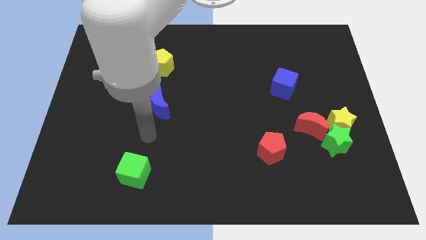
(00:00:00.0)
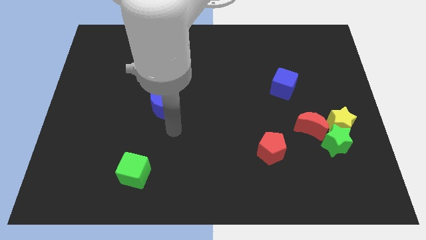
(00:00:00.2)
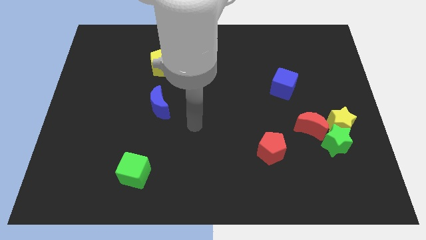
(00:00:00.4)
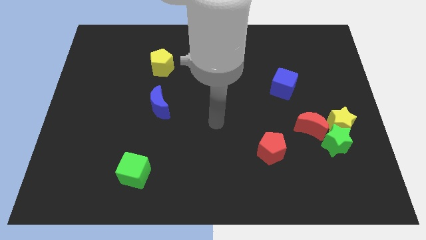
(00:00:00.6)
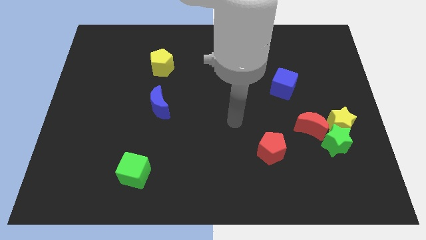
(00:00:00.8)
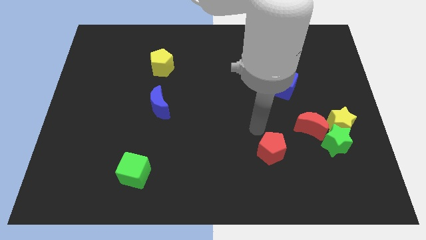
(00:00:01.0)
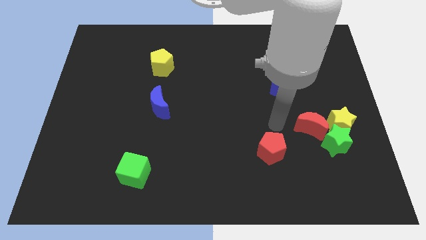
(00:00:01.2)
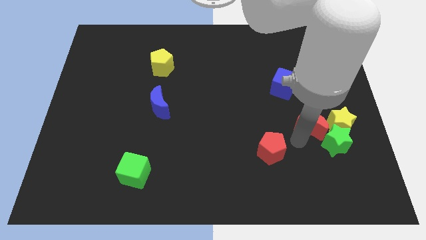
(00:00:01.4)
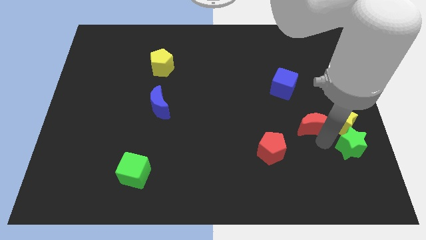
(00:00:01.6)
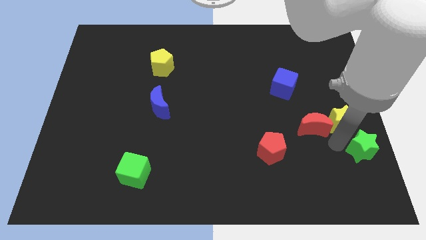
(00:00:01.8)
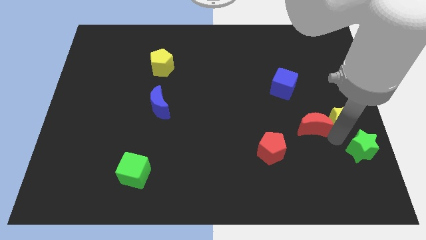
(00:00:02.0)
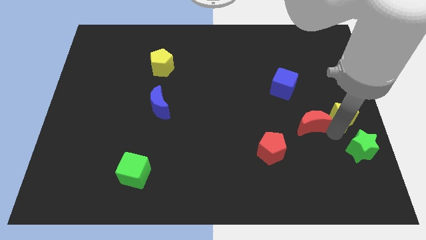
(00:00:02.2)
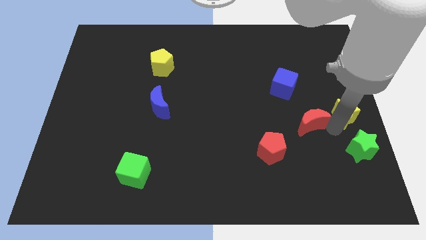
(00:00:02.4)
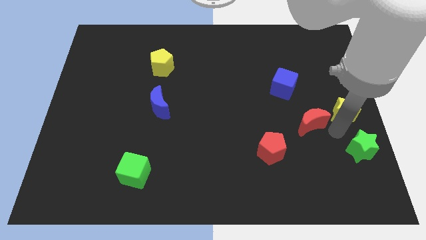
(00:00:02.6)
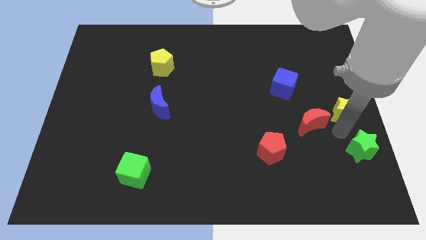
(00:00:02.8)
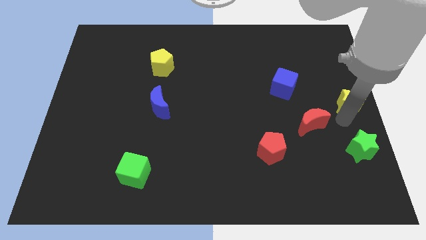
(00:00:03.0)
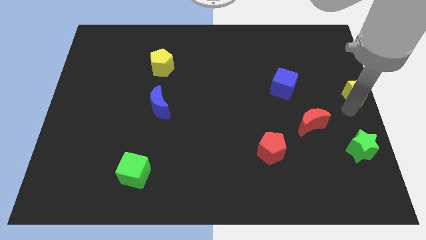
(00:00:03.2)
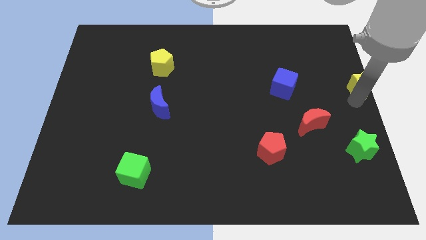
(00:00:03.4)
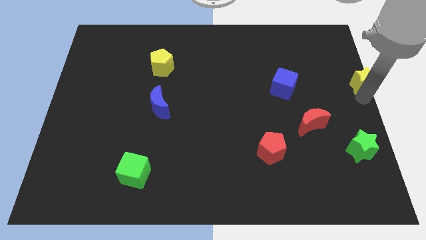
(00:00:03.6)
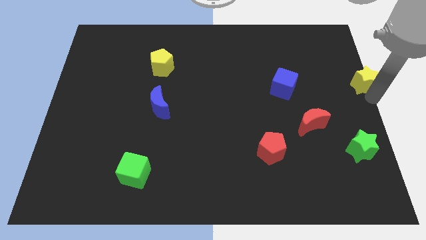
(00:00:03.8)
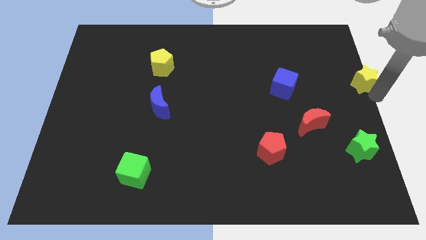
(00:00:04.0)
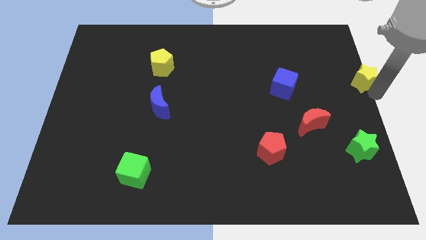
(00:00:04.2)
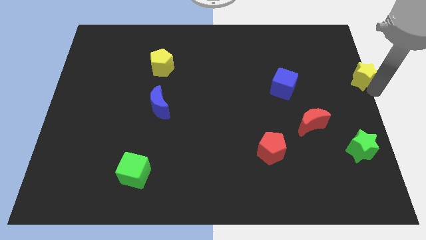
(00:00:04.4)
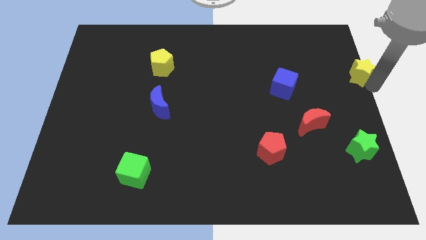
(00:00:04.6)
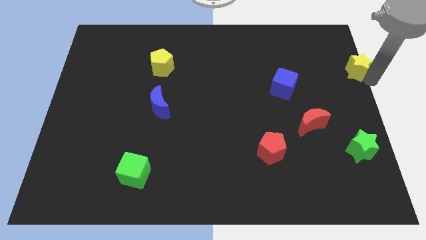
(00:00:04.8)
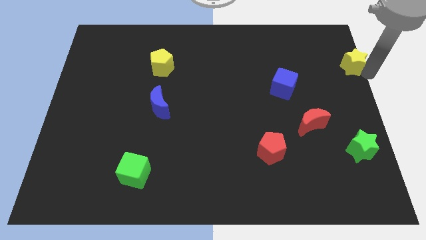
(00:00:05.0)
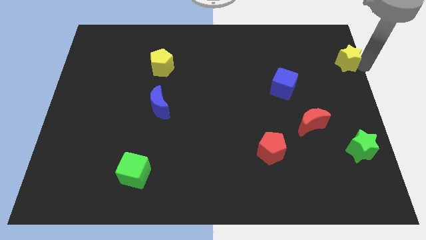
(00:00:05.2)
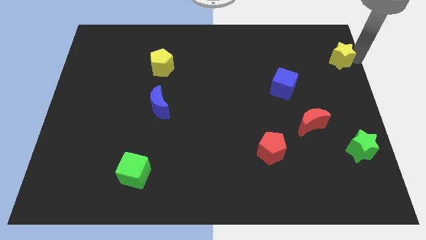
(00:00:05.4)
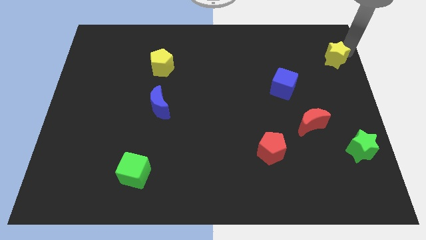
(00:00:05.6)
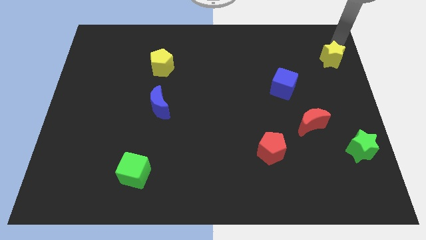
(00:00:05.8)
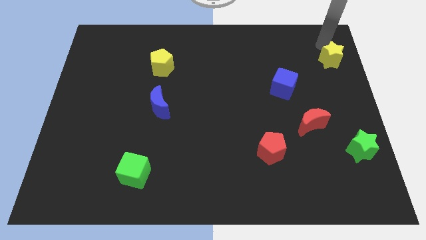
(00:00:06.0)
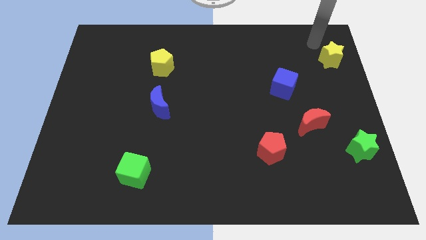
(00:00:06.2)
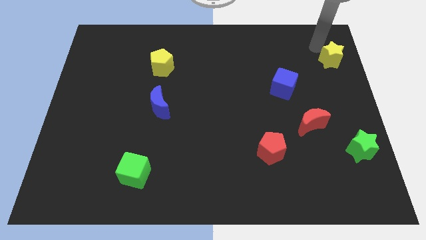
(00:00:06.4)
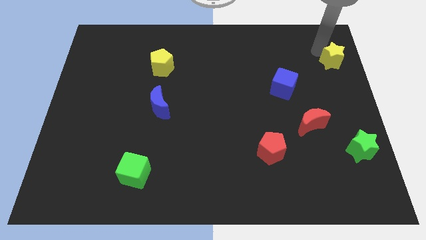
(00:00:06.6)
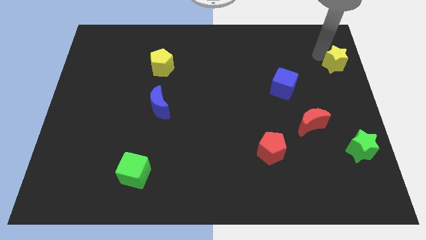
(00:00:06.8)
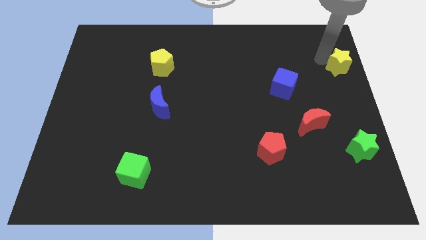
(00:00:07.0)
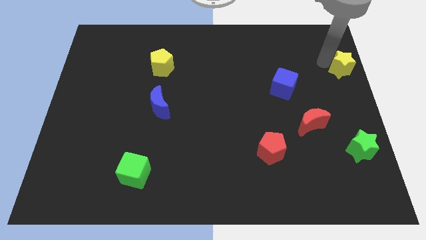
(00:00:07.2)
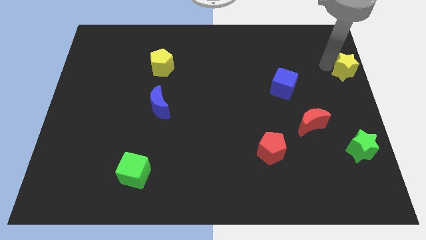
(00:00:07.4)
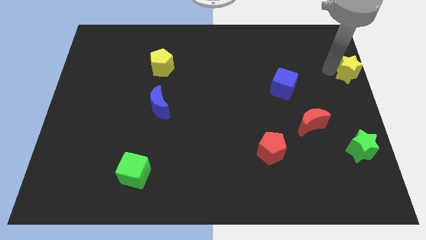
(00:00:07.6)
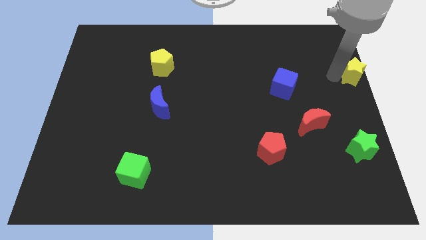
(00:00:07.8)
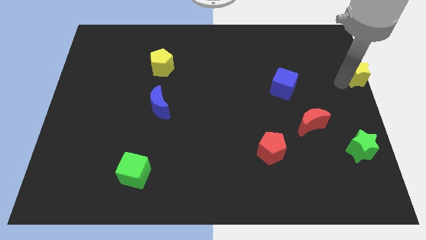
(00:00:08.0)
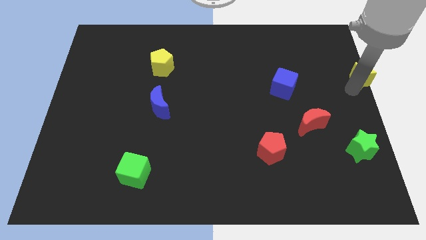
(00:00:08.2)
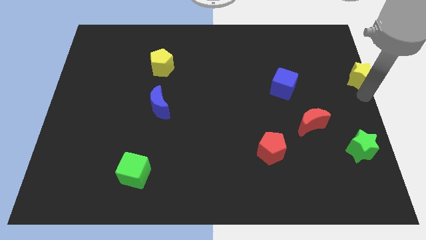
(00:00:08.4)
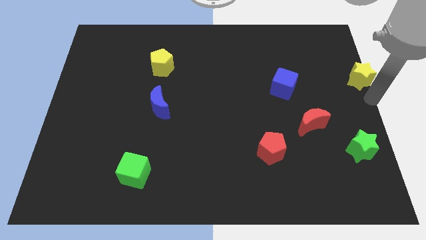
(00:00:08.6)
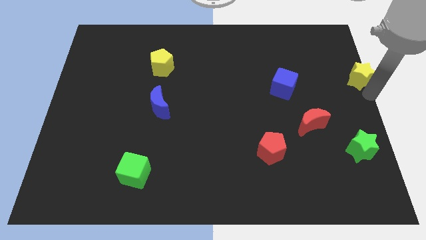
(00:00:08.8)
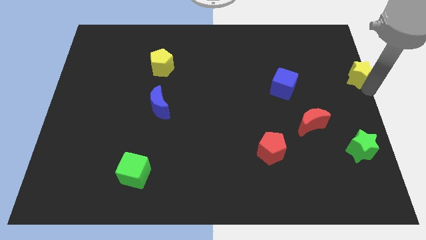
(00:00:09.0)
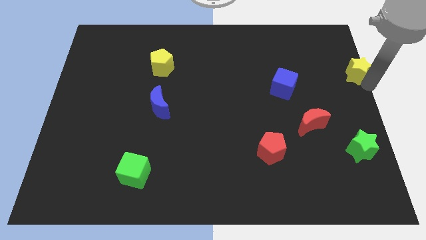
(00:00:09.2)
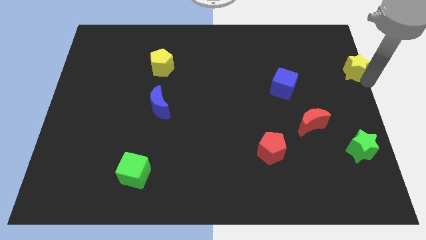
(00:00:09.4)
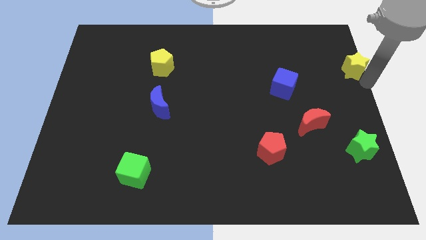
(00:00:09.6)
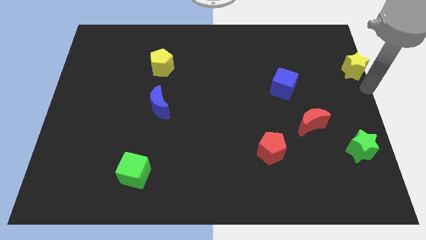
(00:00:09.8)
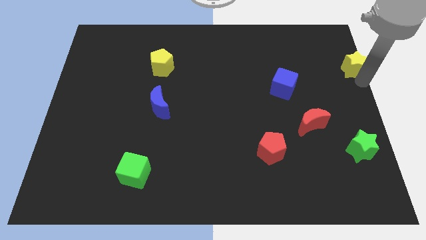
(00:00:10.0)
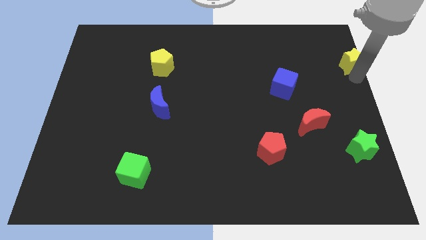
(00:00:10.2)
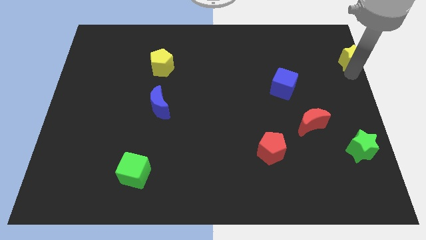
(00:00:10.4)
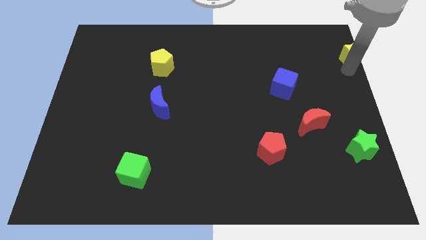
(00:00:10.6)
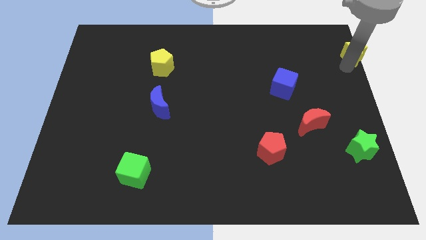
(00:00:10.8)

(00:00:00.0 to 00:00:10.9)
push the yellow star to the top right corner

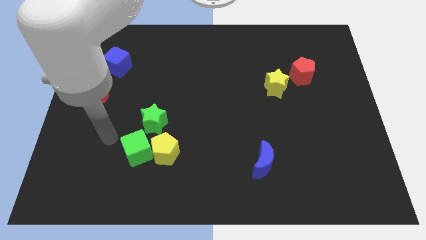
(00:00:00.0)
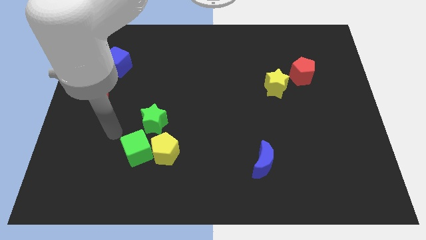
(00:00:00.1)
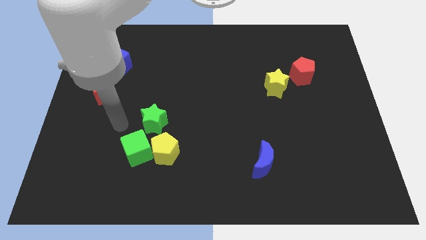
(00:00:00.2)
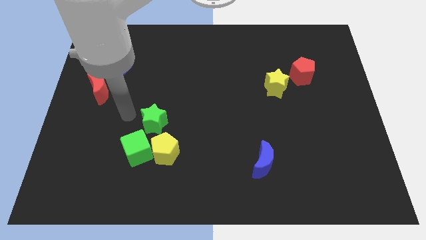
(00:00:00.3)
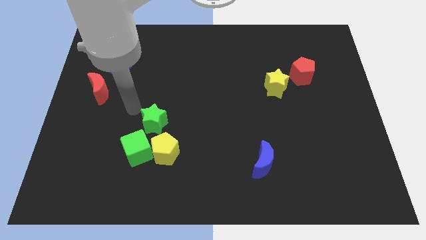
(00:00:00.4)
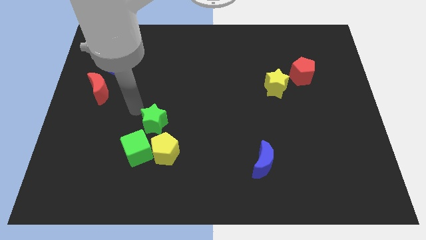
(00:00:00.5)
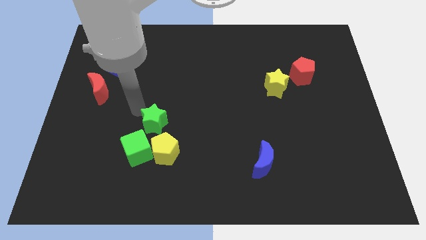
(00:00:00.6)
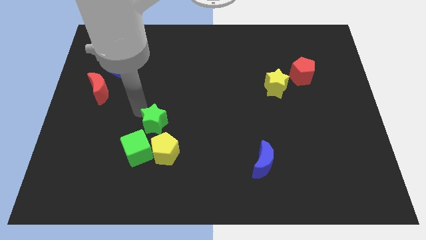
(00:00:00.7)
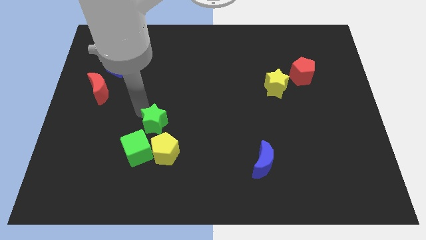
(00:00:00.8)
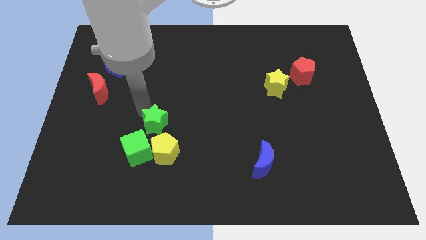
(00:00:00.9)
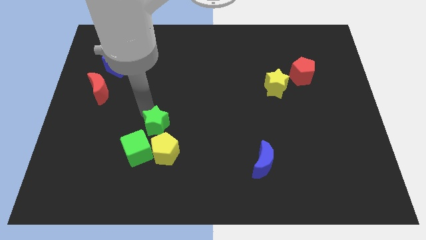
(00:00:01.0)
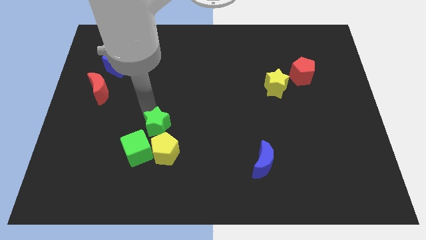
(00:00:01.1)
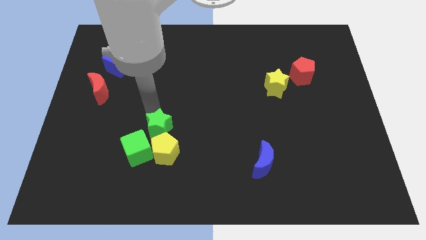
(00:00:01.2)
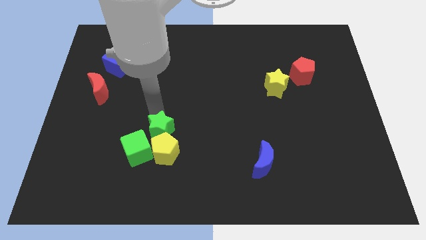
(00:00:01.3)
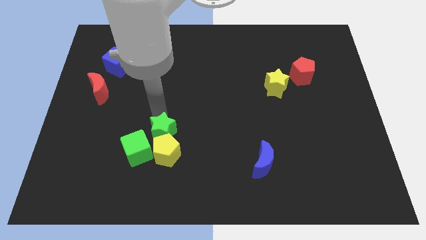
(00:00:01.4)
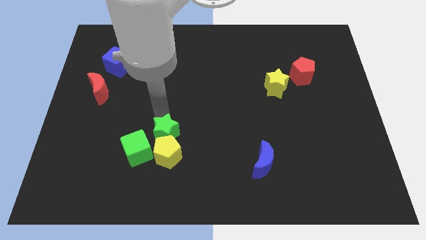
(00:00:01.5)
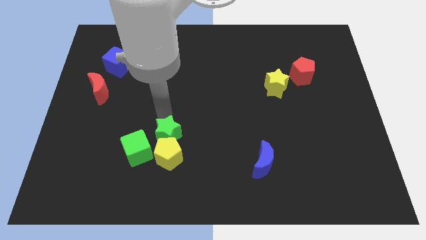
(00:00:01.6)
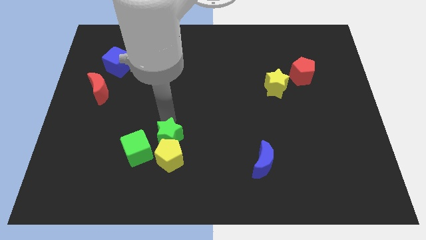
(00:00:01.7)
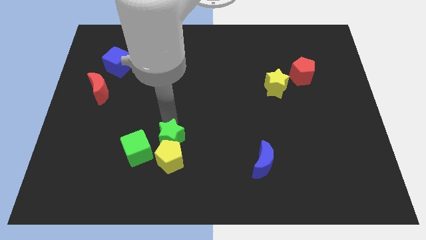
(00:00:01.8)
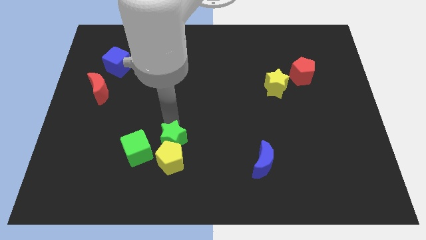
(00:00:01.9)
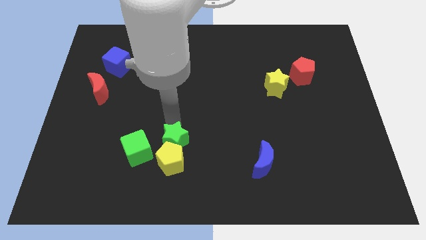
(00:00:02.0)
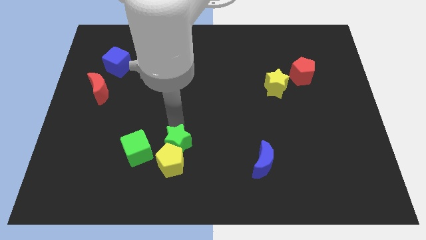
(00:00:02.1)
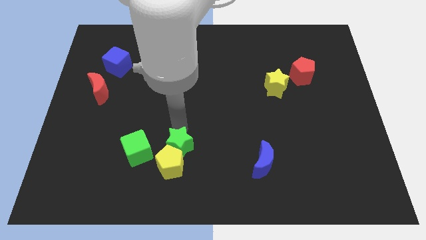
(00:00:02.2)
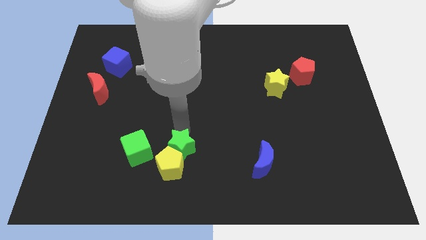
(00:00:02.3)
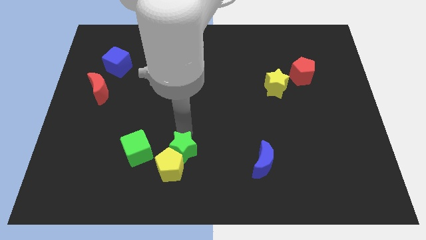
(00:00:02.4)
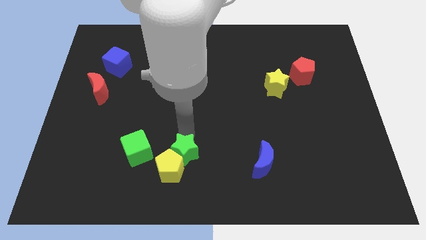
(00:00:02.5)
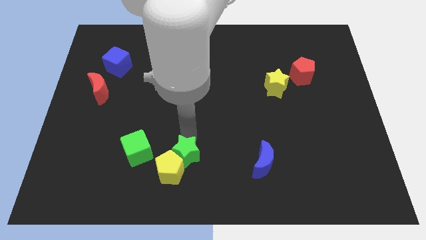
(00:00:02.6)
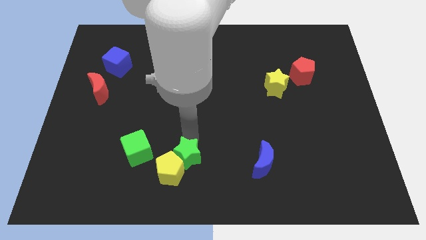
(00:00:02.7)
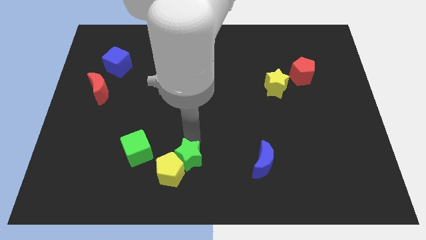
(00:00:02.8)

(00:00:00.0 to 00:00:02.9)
push the green star to the bottom side
